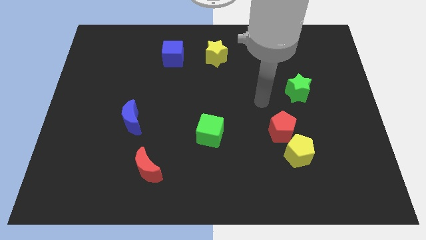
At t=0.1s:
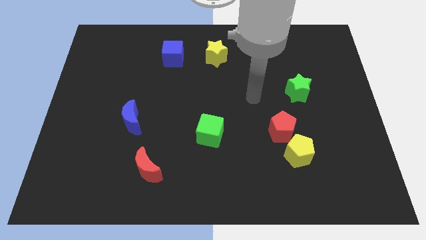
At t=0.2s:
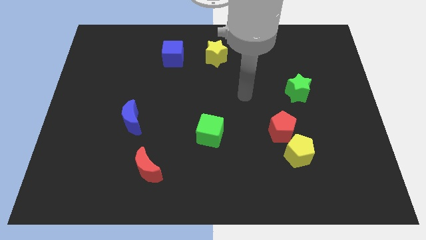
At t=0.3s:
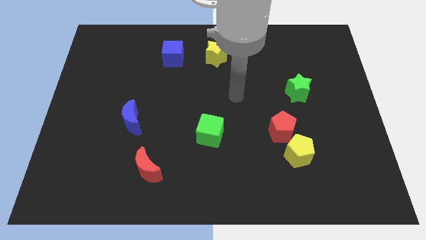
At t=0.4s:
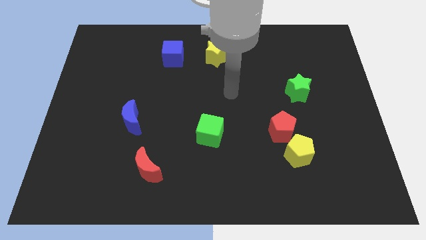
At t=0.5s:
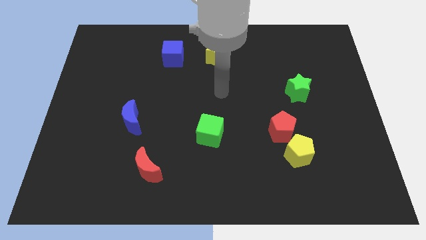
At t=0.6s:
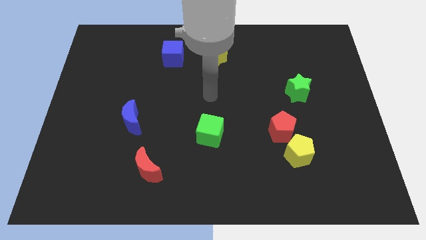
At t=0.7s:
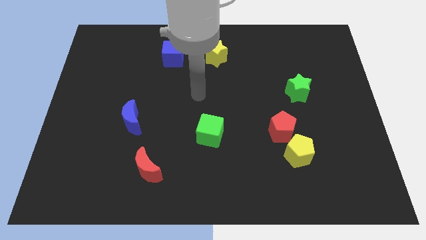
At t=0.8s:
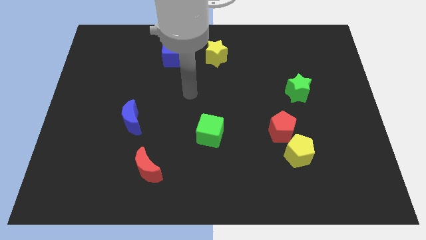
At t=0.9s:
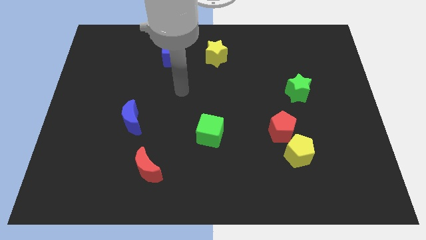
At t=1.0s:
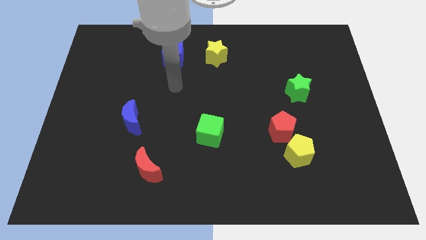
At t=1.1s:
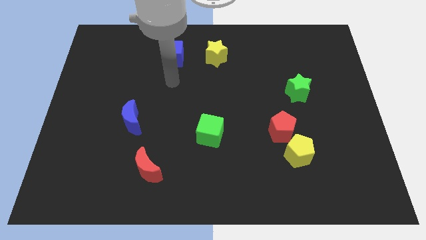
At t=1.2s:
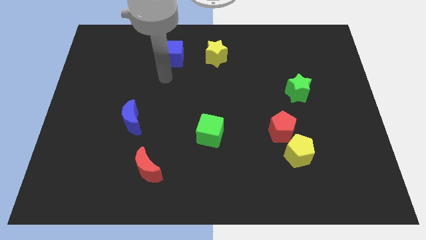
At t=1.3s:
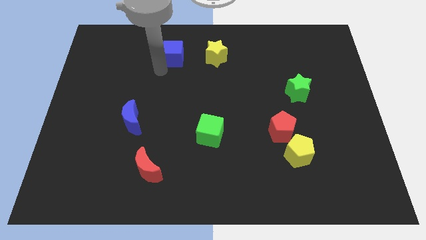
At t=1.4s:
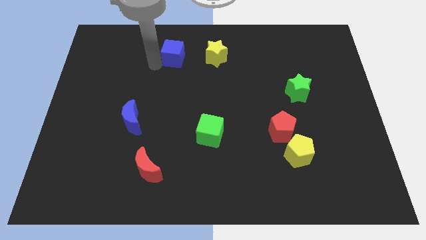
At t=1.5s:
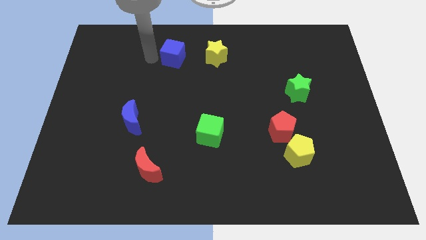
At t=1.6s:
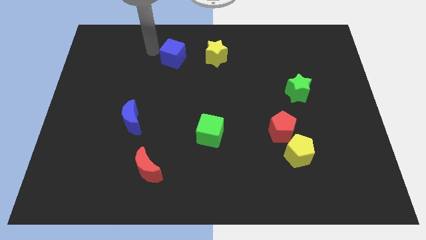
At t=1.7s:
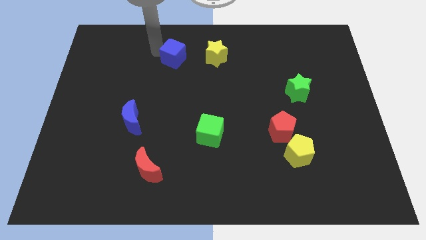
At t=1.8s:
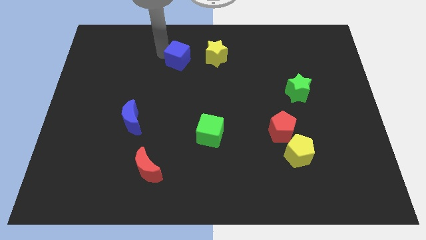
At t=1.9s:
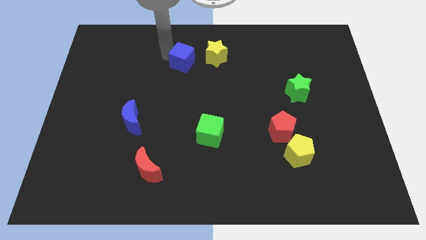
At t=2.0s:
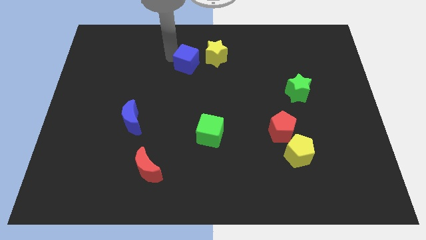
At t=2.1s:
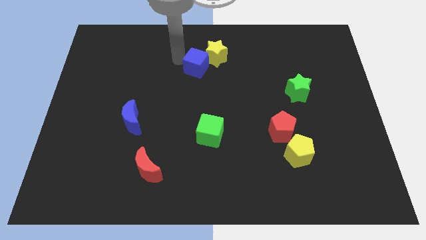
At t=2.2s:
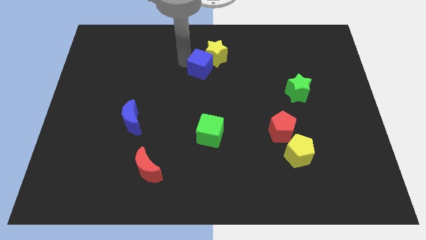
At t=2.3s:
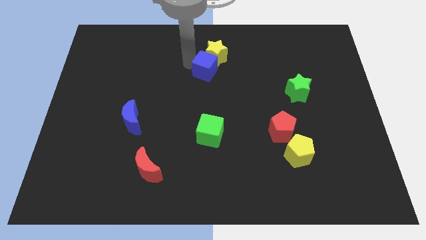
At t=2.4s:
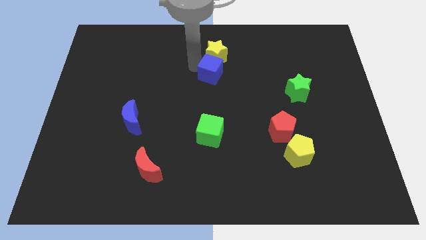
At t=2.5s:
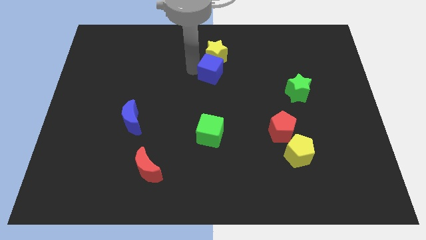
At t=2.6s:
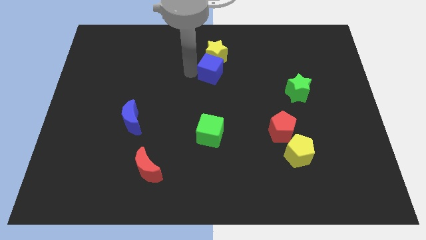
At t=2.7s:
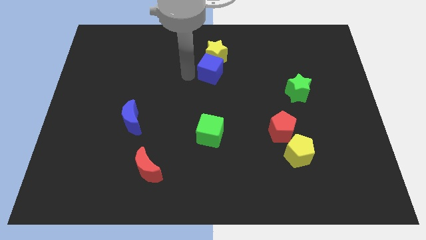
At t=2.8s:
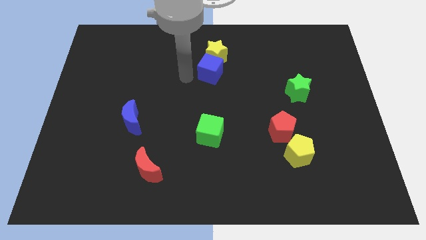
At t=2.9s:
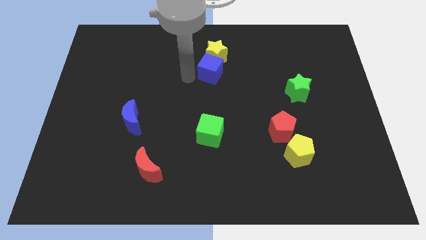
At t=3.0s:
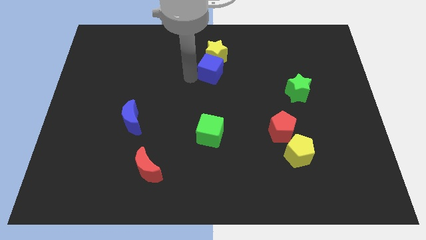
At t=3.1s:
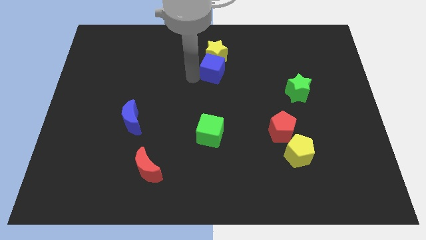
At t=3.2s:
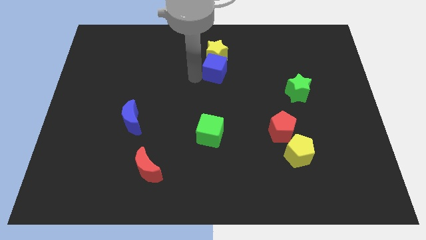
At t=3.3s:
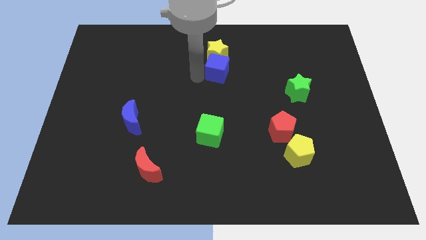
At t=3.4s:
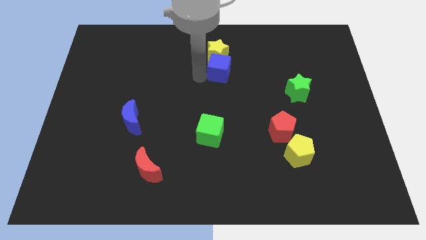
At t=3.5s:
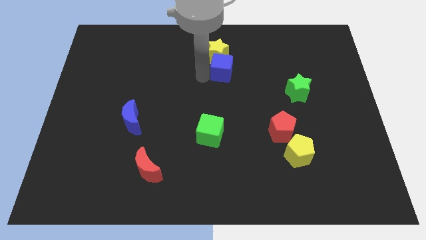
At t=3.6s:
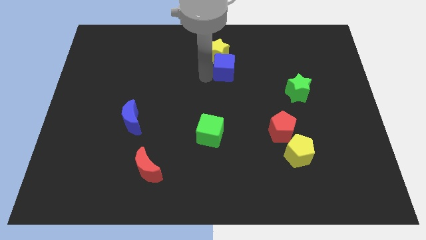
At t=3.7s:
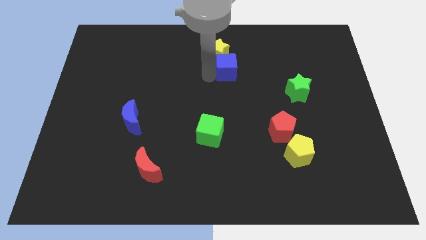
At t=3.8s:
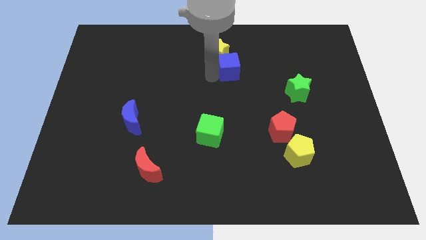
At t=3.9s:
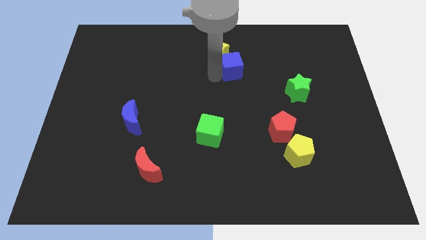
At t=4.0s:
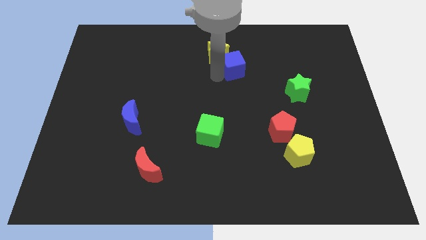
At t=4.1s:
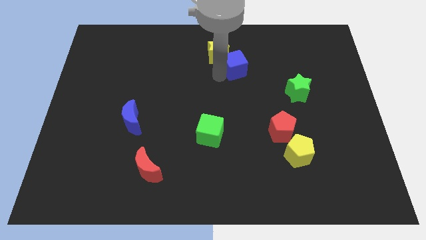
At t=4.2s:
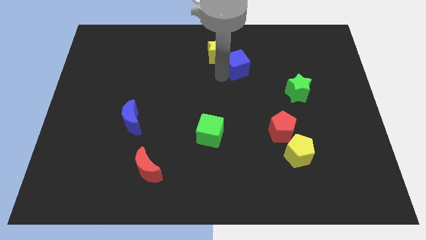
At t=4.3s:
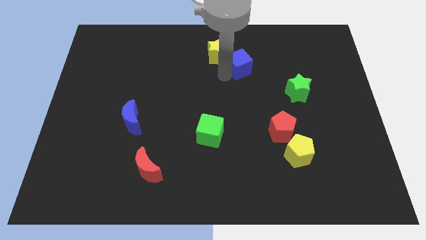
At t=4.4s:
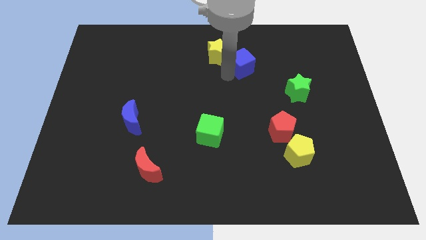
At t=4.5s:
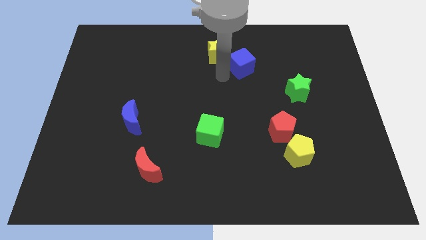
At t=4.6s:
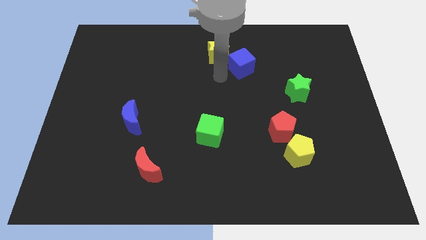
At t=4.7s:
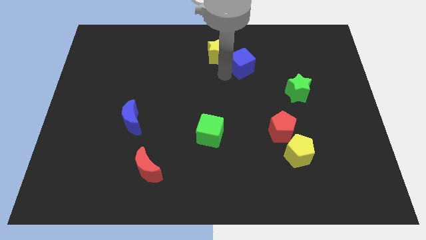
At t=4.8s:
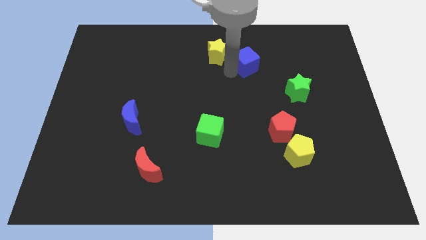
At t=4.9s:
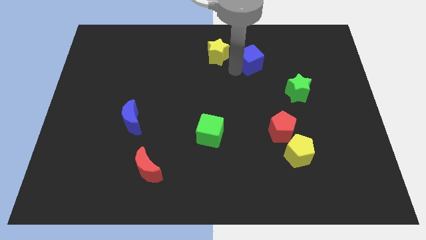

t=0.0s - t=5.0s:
push the blue cube right

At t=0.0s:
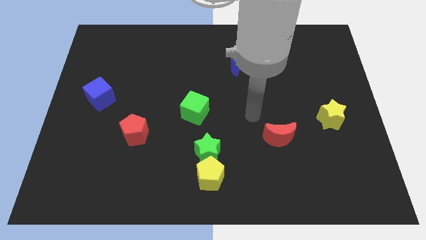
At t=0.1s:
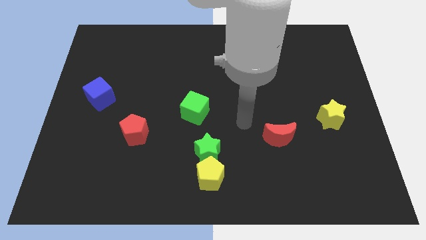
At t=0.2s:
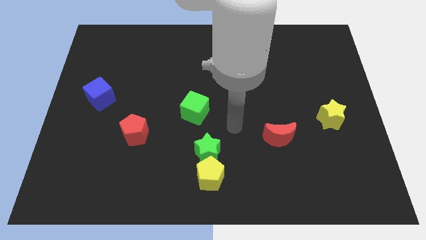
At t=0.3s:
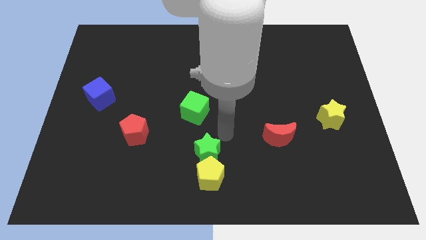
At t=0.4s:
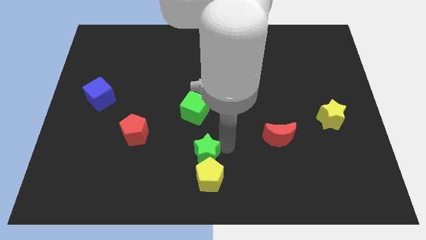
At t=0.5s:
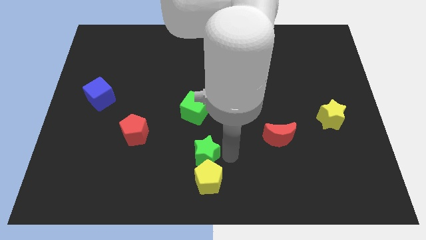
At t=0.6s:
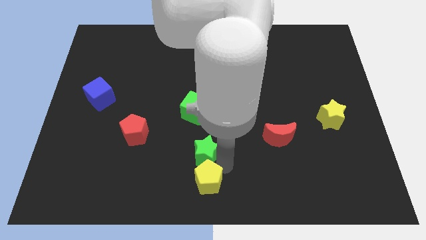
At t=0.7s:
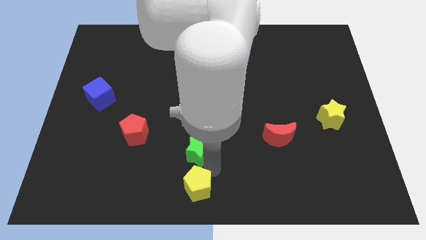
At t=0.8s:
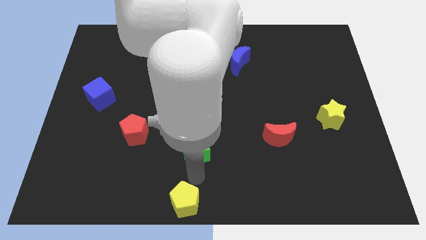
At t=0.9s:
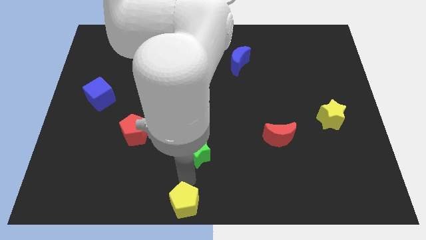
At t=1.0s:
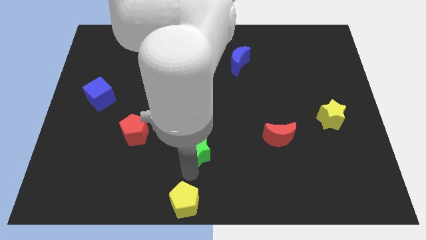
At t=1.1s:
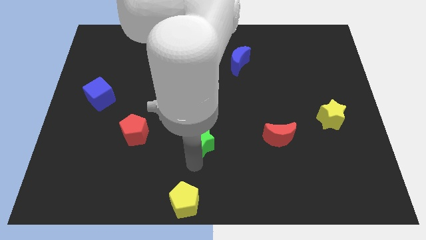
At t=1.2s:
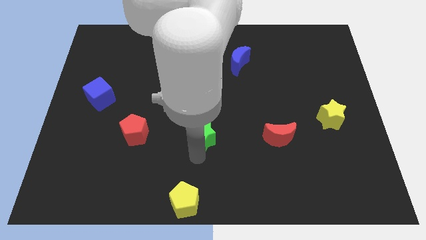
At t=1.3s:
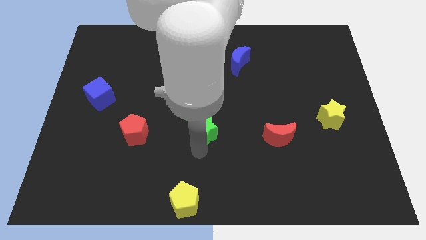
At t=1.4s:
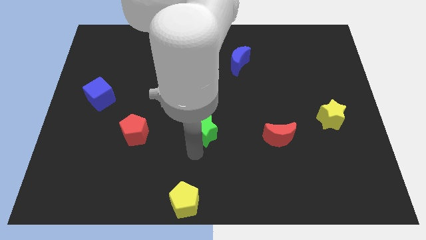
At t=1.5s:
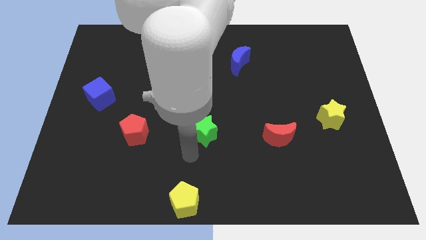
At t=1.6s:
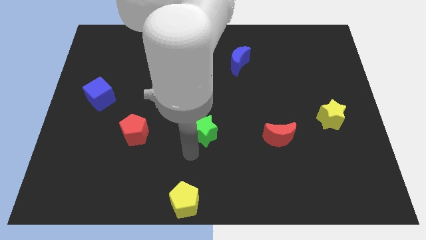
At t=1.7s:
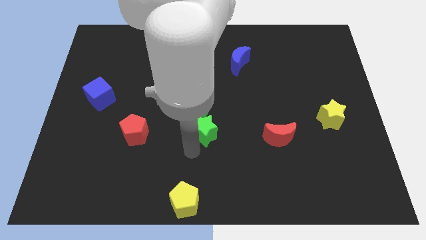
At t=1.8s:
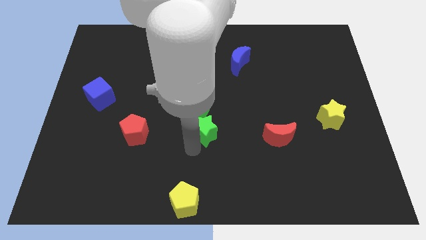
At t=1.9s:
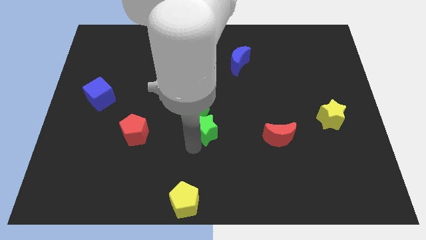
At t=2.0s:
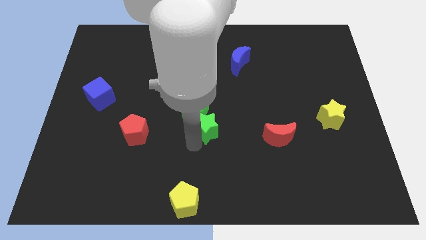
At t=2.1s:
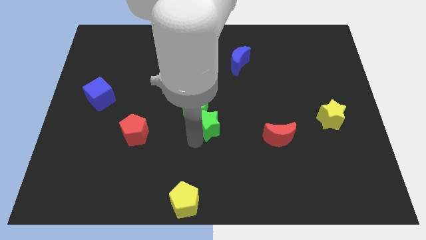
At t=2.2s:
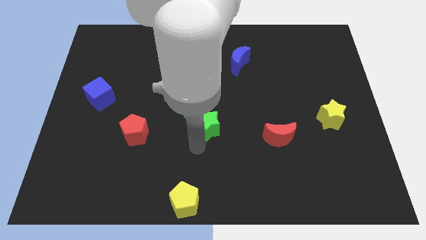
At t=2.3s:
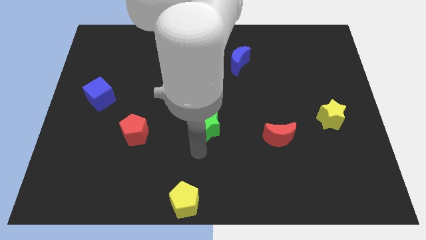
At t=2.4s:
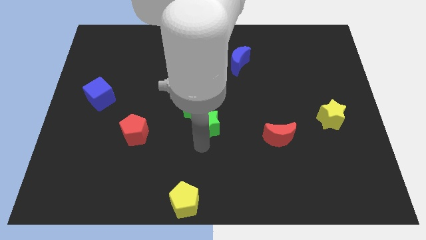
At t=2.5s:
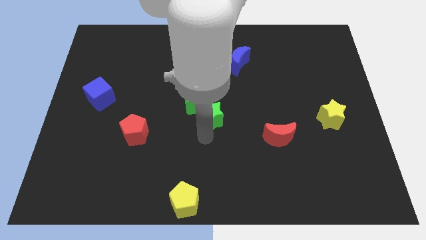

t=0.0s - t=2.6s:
slightly slide the green star upwards

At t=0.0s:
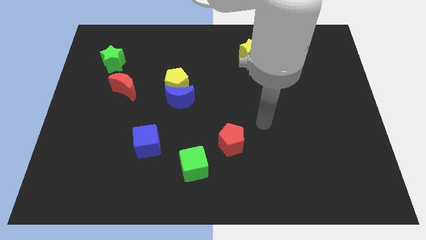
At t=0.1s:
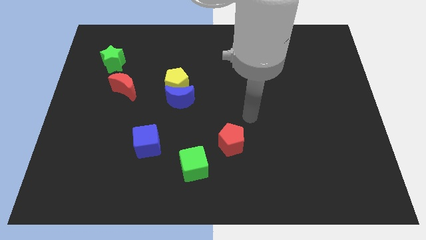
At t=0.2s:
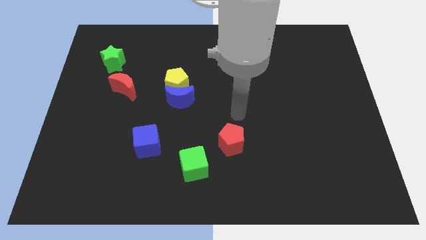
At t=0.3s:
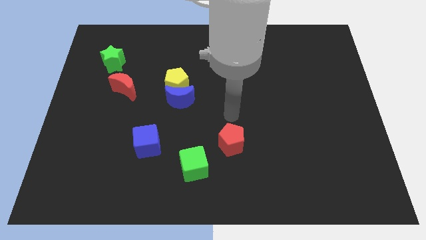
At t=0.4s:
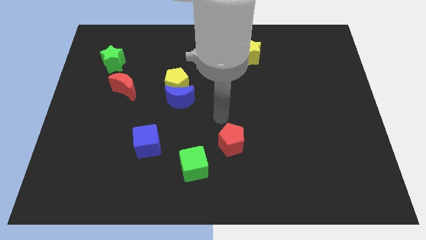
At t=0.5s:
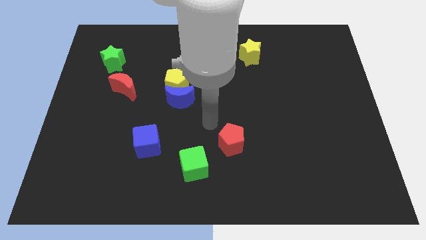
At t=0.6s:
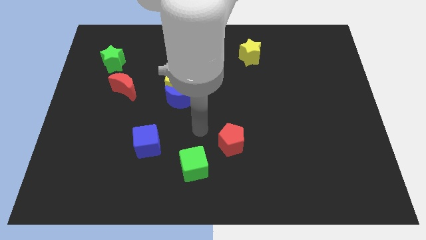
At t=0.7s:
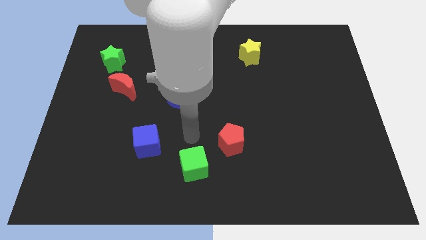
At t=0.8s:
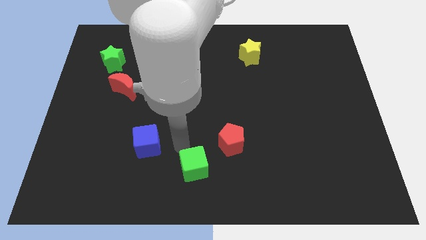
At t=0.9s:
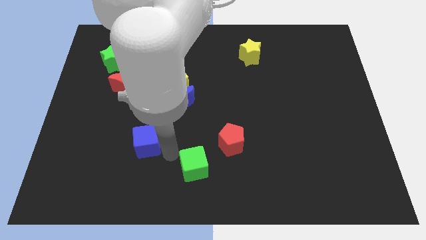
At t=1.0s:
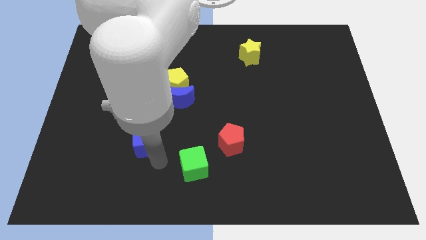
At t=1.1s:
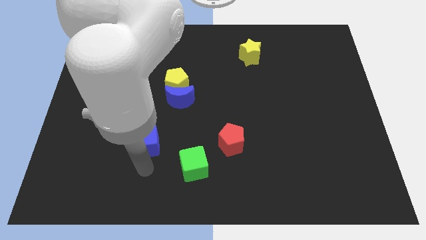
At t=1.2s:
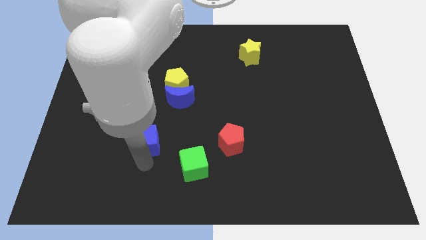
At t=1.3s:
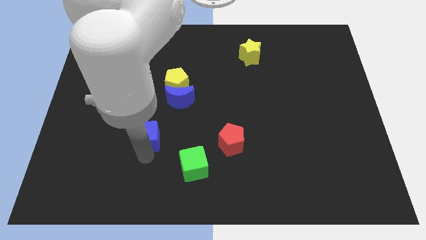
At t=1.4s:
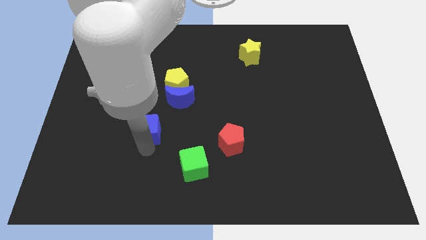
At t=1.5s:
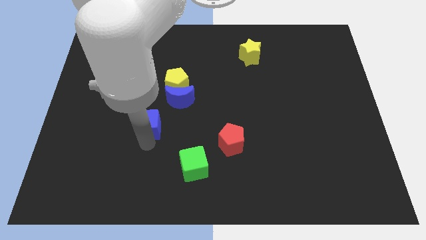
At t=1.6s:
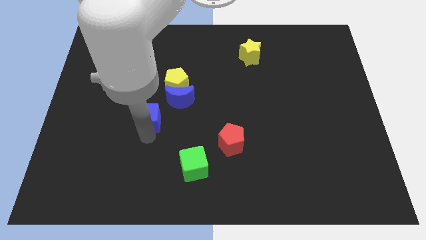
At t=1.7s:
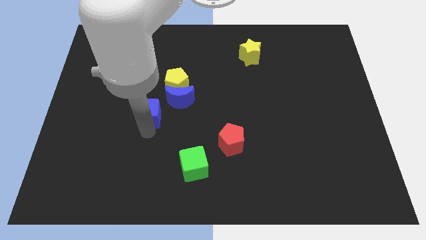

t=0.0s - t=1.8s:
move the blue cube upwards somewhat
